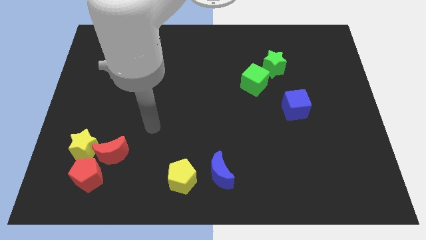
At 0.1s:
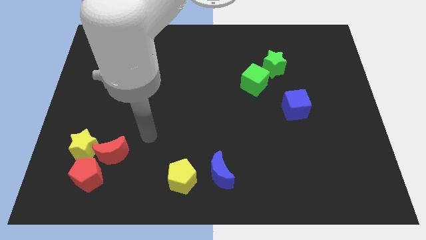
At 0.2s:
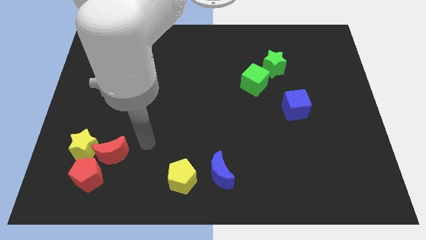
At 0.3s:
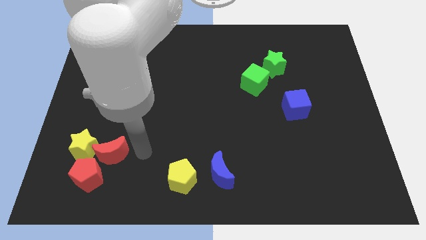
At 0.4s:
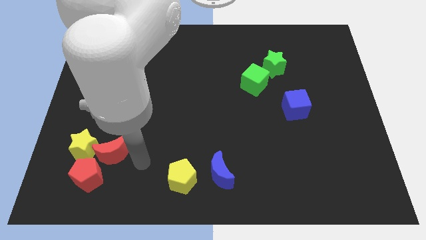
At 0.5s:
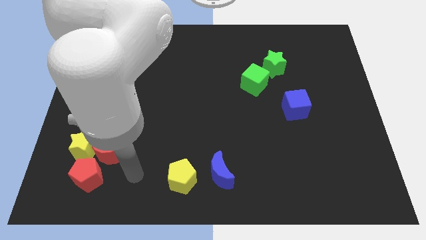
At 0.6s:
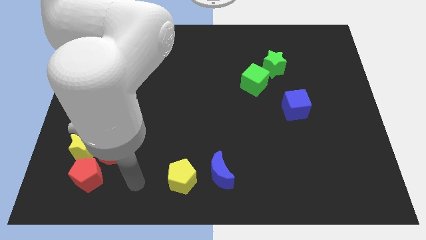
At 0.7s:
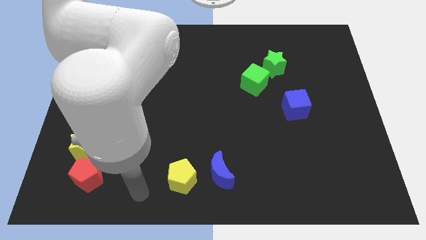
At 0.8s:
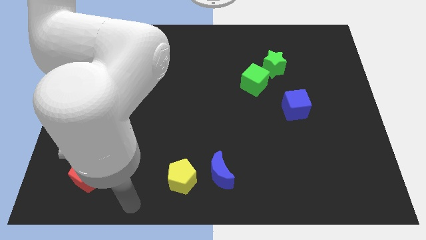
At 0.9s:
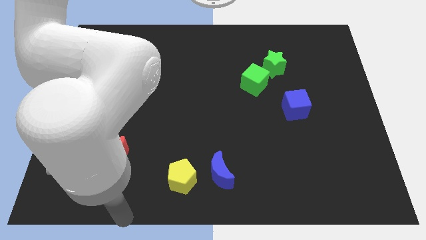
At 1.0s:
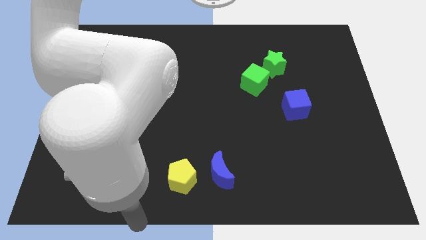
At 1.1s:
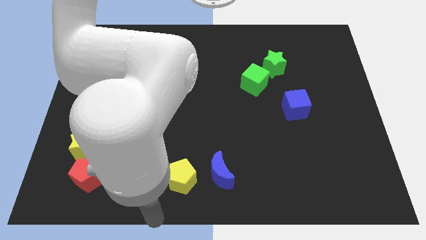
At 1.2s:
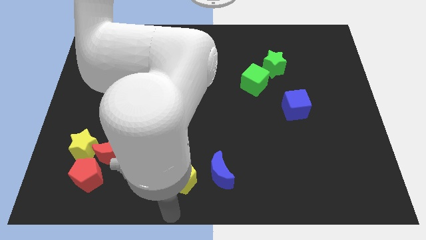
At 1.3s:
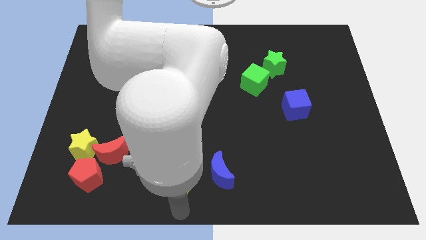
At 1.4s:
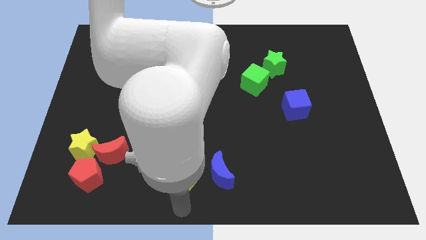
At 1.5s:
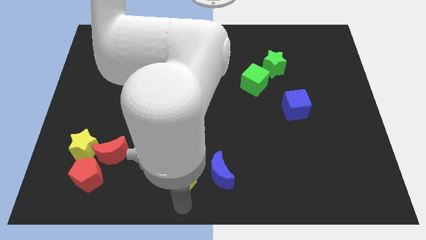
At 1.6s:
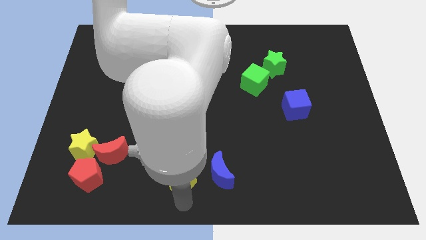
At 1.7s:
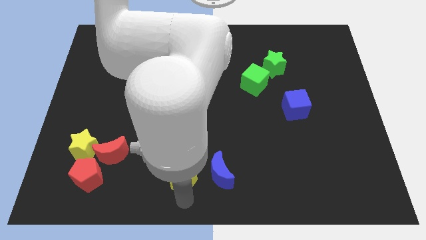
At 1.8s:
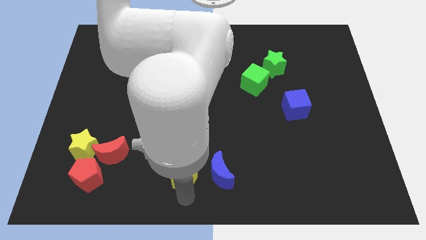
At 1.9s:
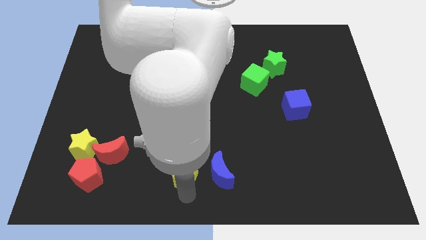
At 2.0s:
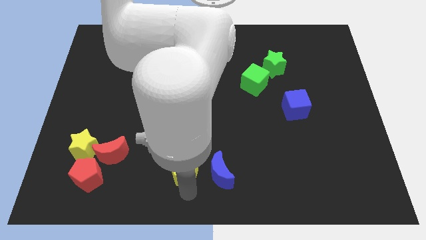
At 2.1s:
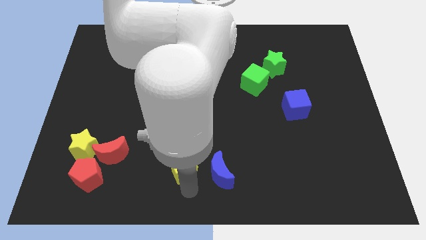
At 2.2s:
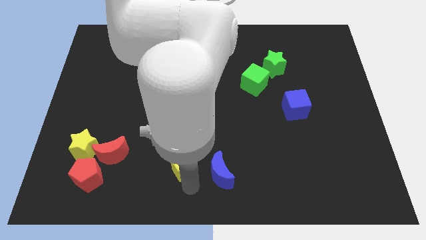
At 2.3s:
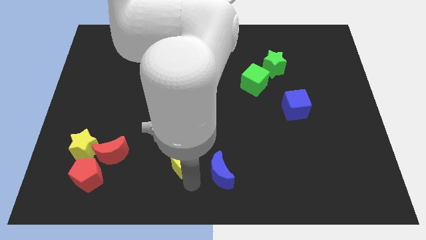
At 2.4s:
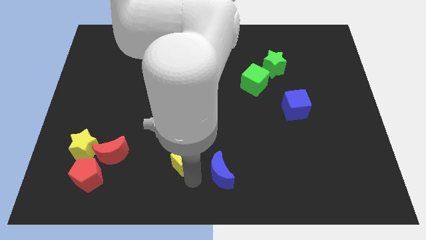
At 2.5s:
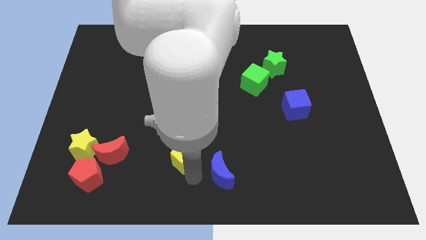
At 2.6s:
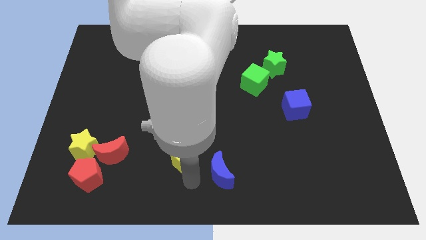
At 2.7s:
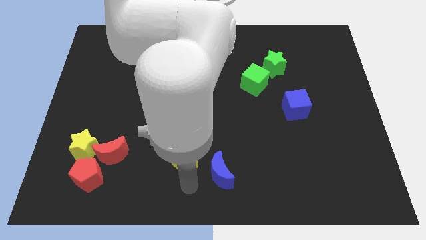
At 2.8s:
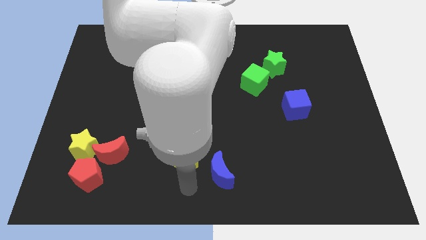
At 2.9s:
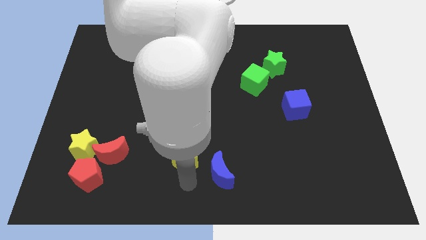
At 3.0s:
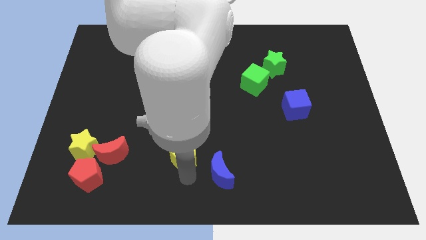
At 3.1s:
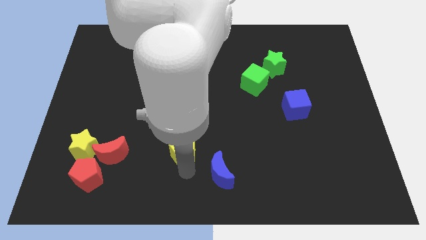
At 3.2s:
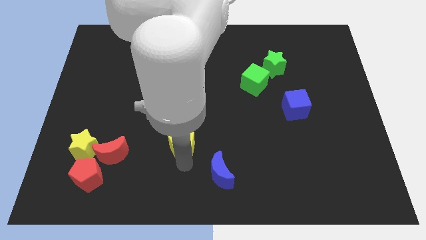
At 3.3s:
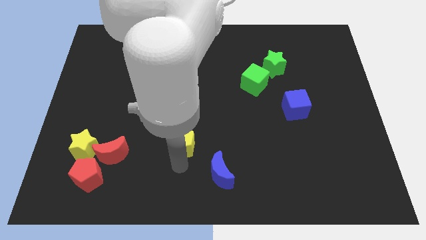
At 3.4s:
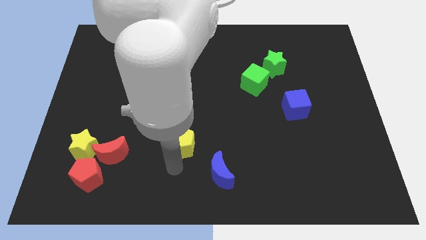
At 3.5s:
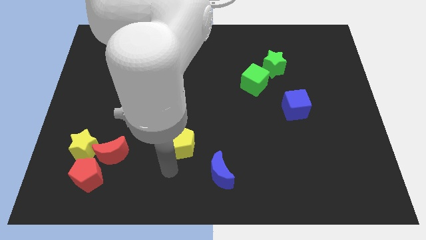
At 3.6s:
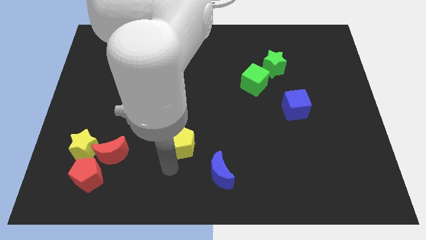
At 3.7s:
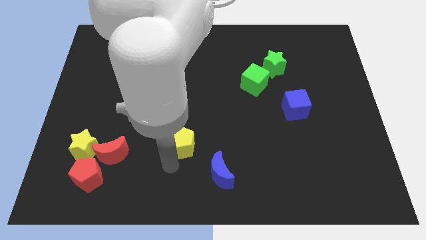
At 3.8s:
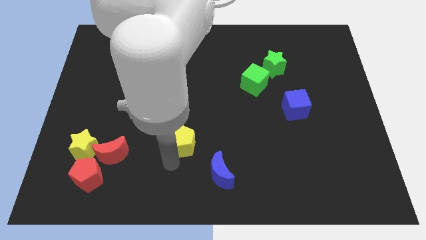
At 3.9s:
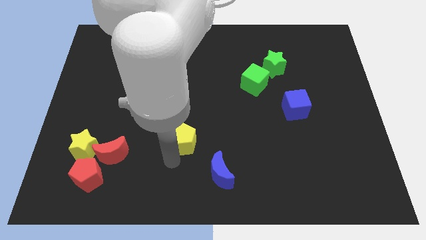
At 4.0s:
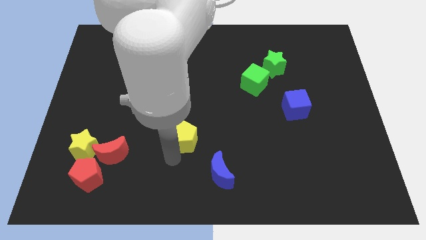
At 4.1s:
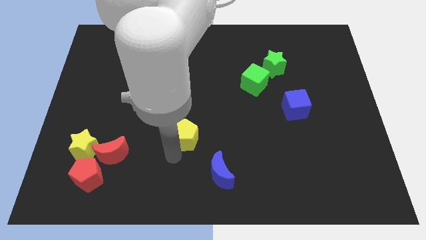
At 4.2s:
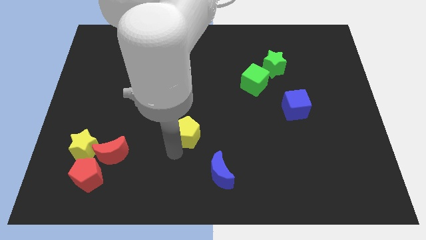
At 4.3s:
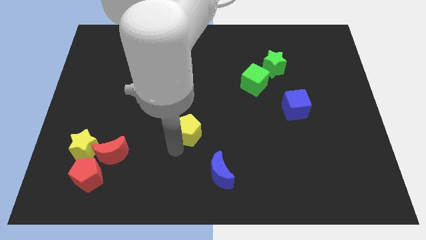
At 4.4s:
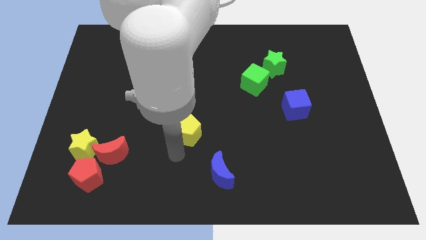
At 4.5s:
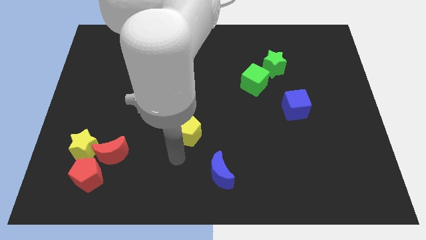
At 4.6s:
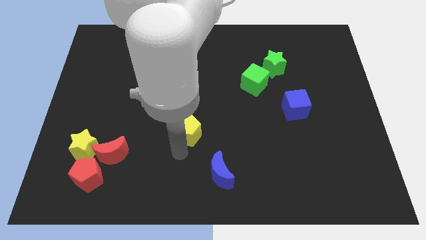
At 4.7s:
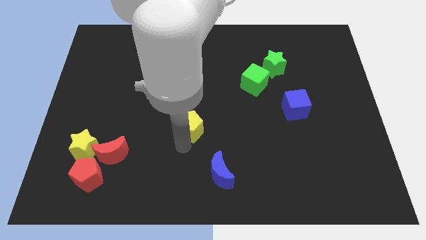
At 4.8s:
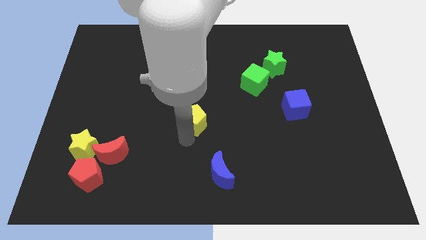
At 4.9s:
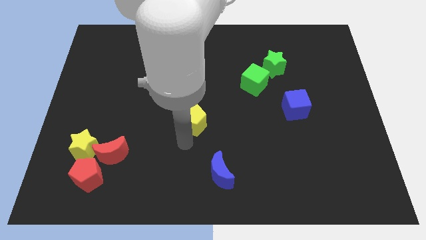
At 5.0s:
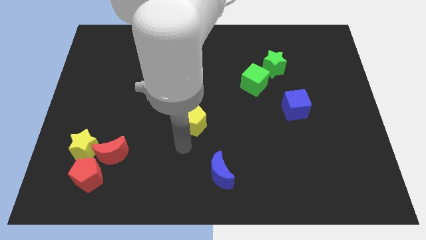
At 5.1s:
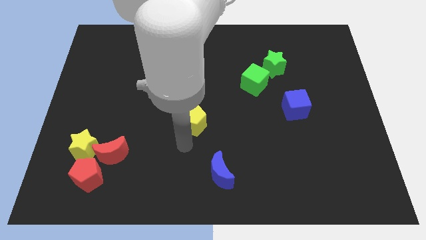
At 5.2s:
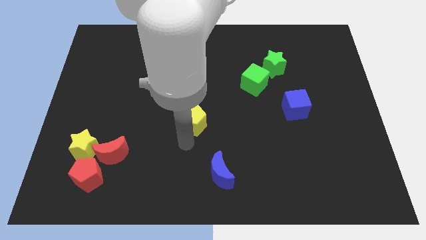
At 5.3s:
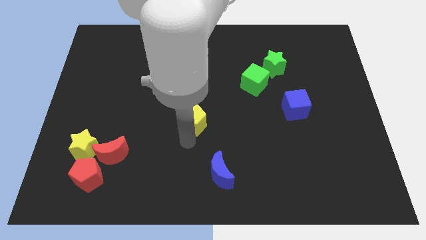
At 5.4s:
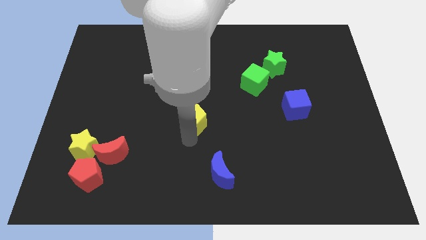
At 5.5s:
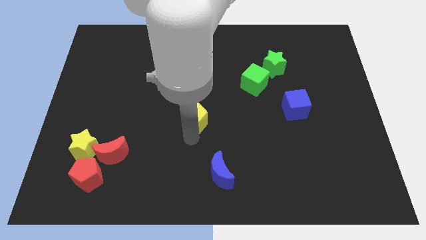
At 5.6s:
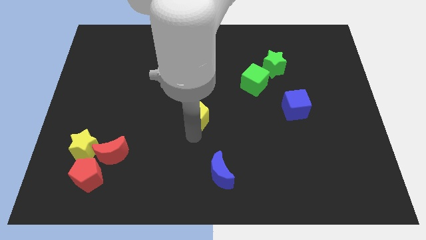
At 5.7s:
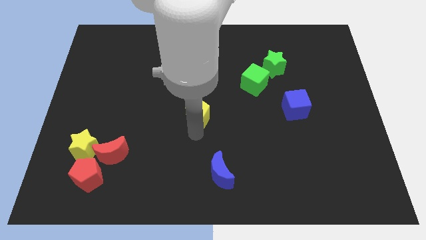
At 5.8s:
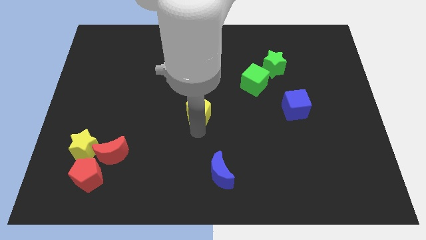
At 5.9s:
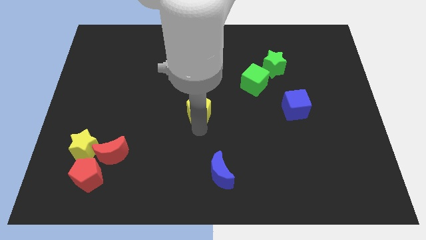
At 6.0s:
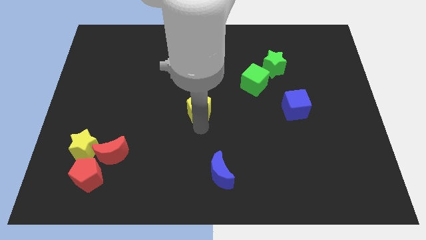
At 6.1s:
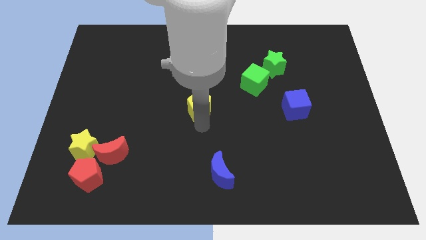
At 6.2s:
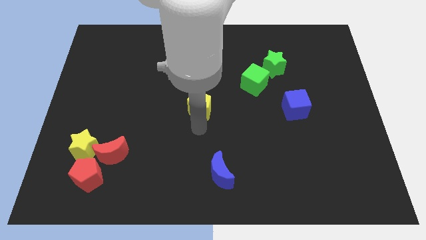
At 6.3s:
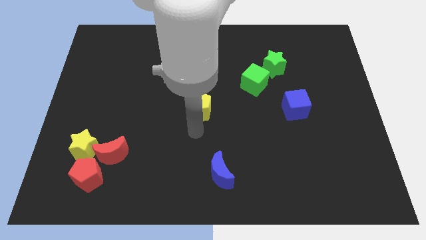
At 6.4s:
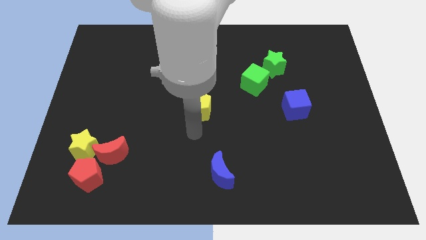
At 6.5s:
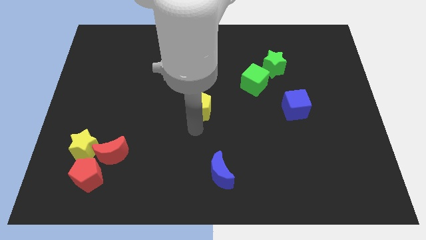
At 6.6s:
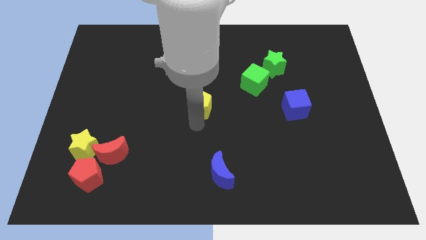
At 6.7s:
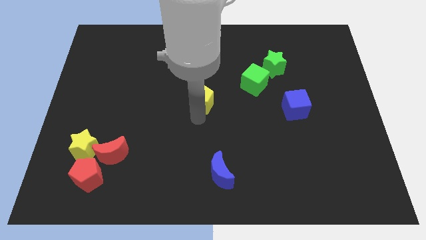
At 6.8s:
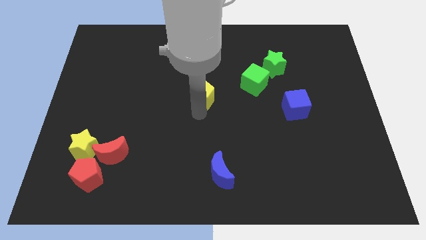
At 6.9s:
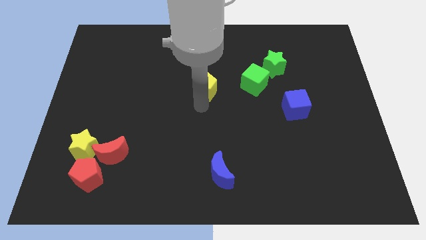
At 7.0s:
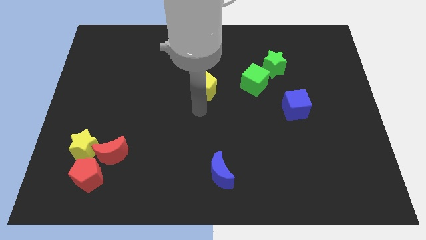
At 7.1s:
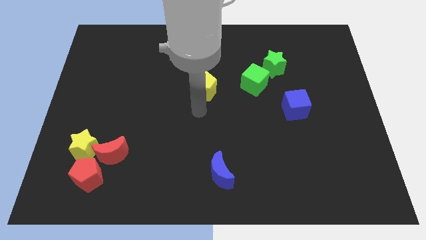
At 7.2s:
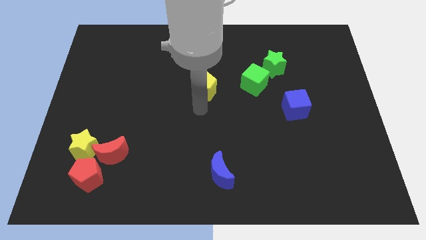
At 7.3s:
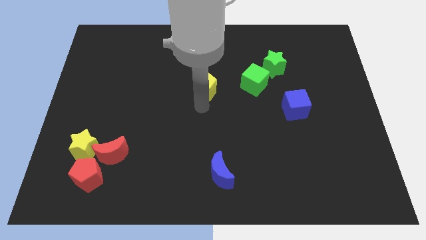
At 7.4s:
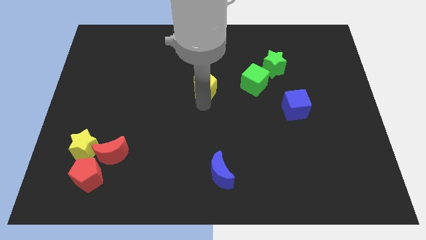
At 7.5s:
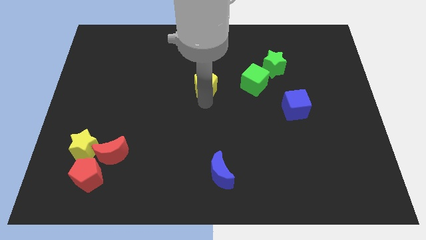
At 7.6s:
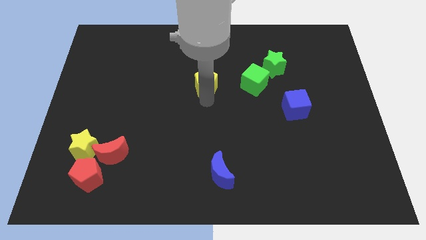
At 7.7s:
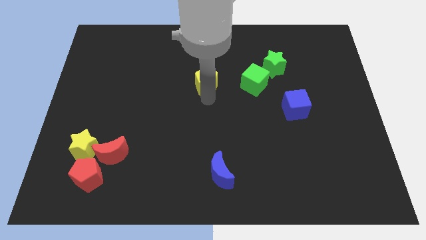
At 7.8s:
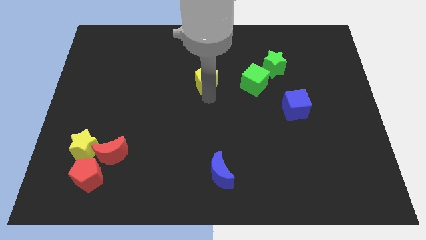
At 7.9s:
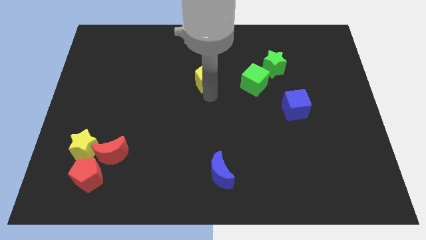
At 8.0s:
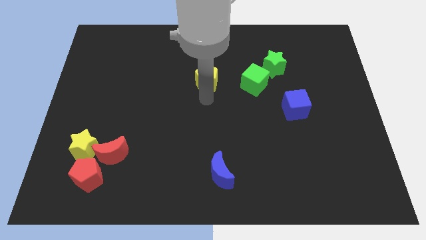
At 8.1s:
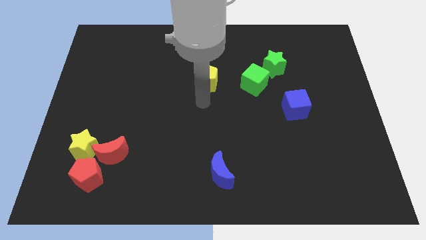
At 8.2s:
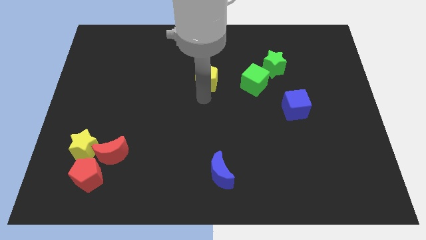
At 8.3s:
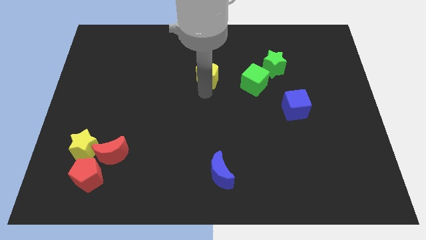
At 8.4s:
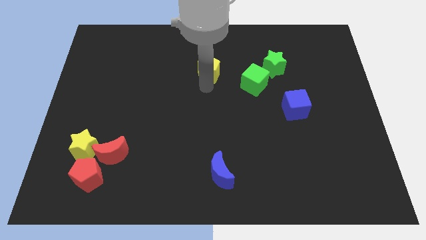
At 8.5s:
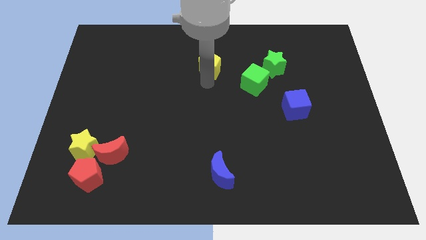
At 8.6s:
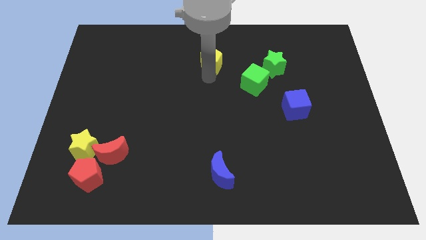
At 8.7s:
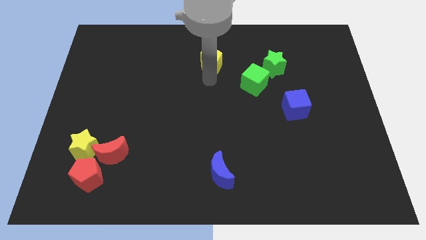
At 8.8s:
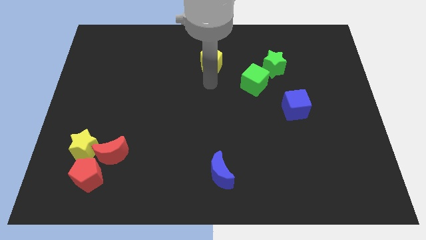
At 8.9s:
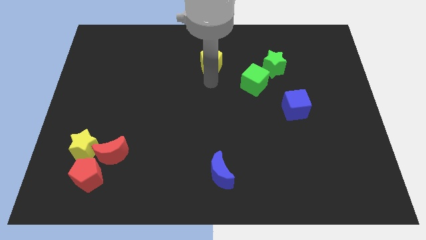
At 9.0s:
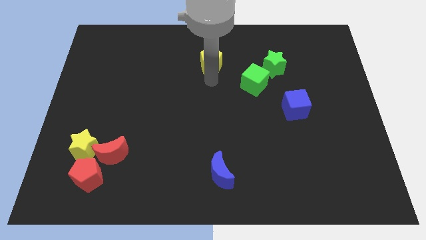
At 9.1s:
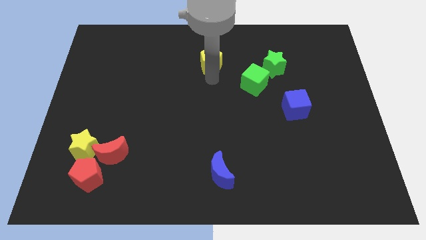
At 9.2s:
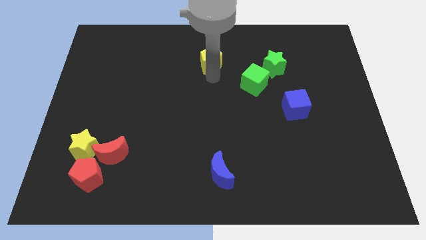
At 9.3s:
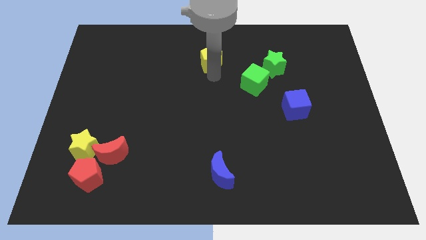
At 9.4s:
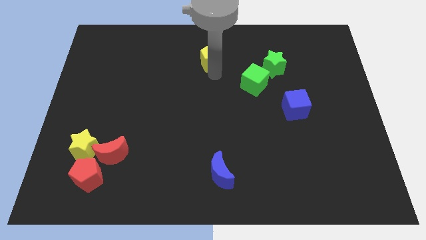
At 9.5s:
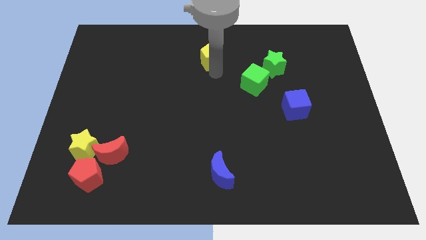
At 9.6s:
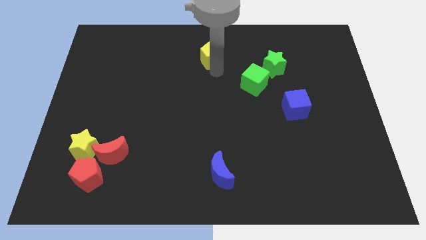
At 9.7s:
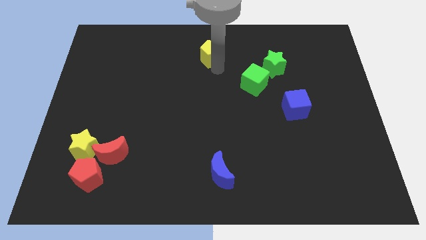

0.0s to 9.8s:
move the yellow pentagon to the top
